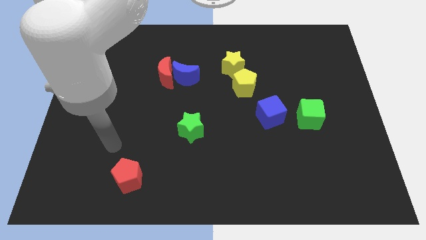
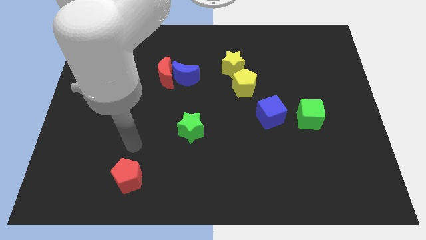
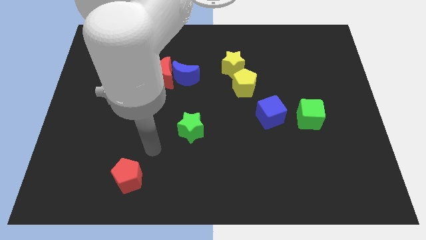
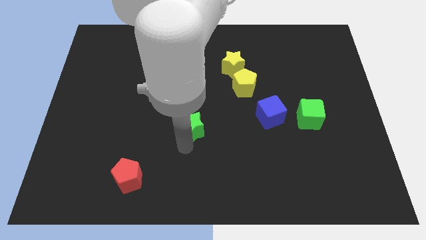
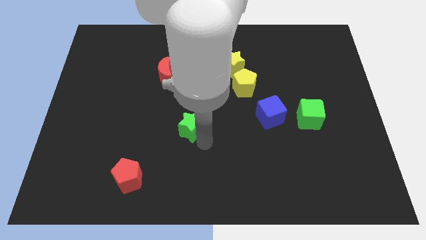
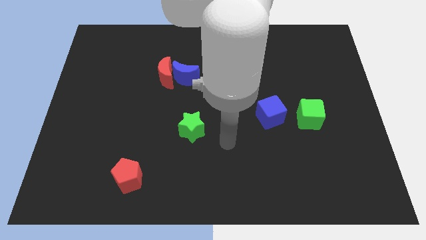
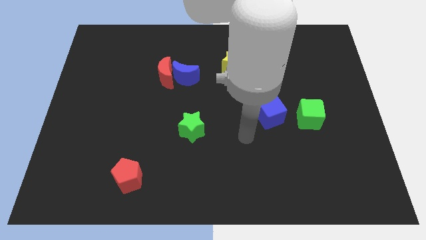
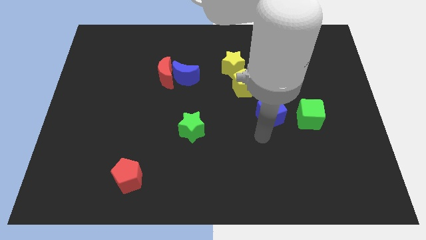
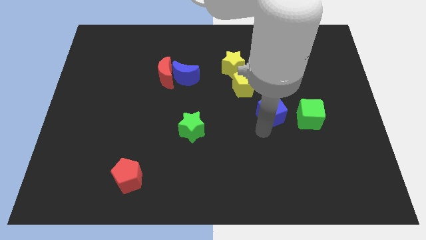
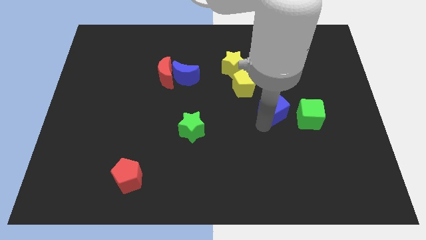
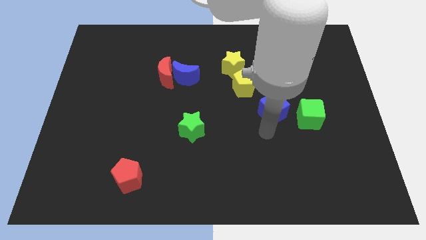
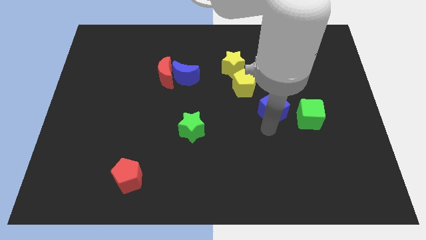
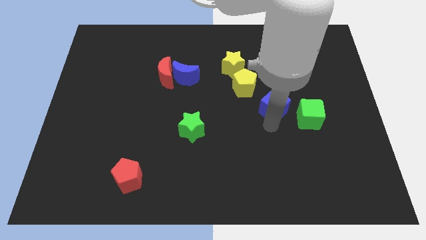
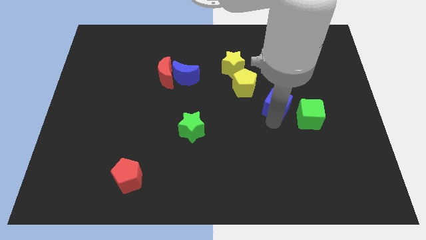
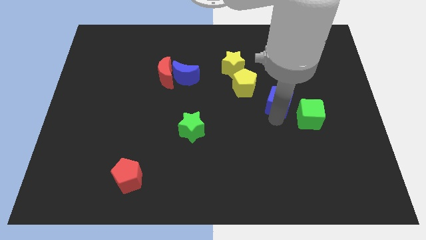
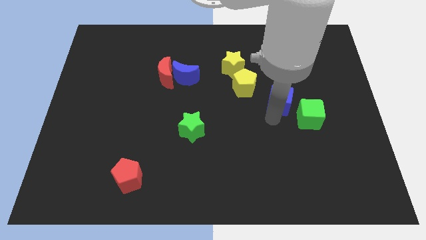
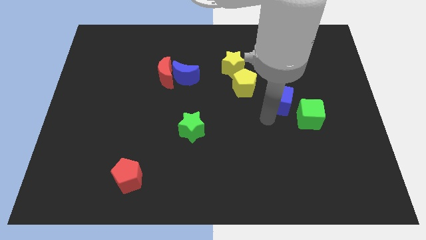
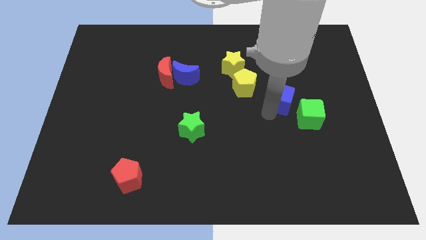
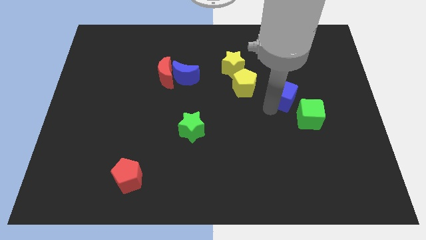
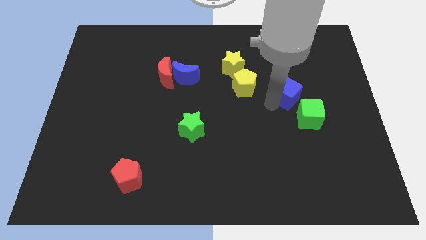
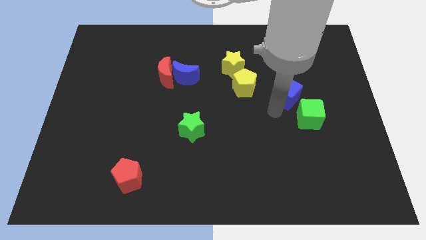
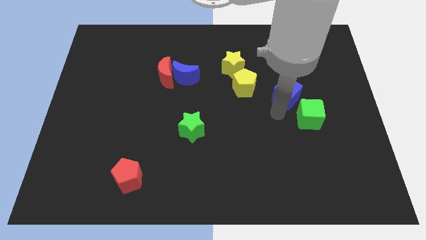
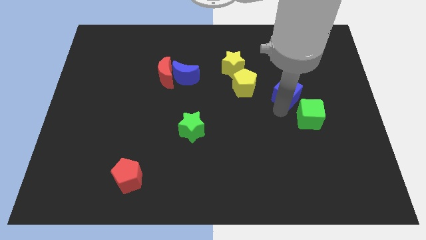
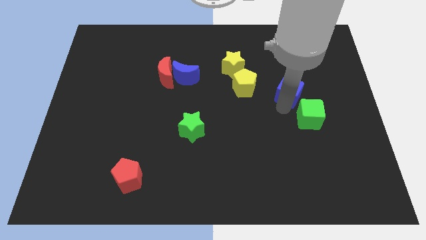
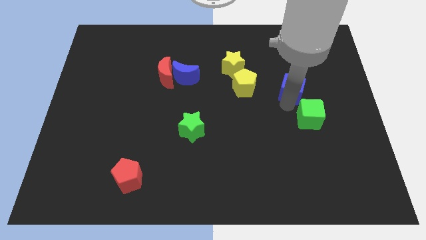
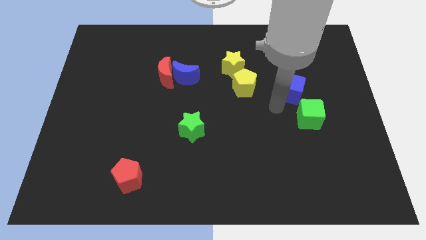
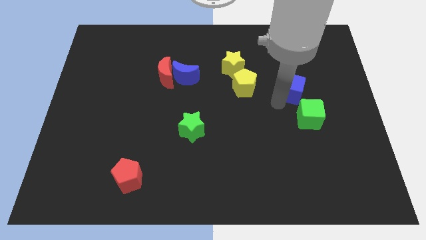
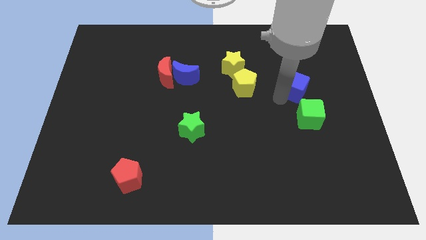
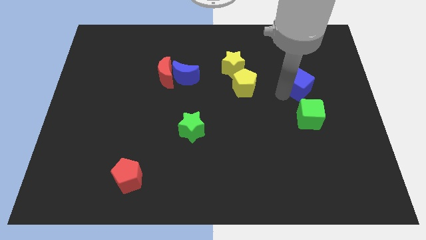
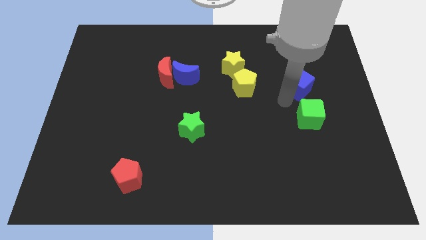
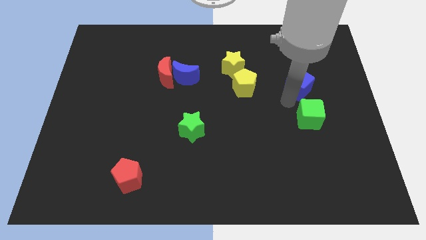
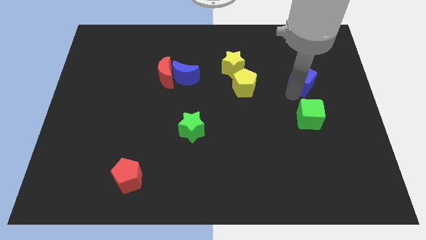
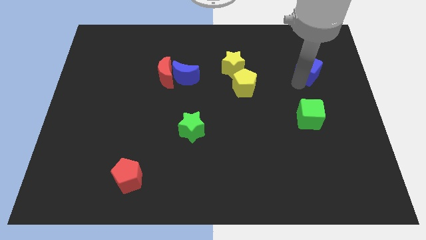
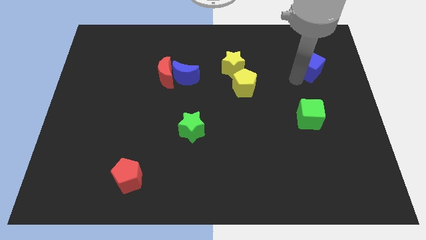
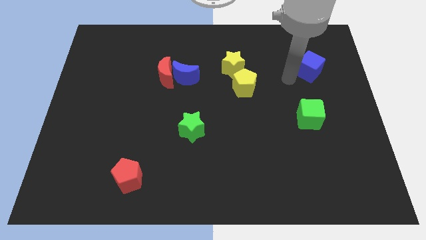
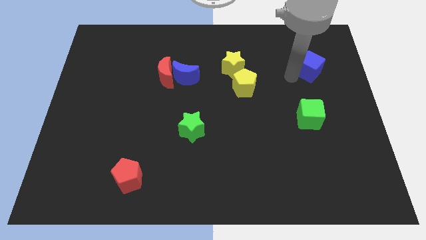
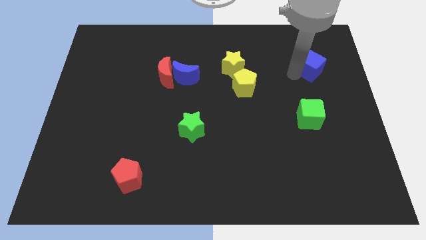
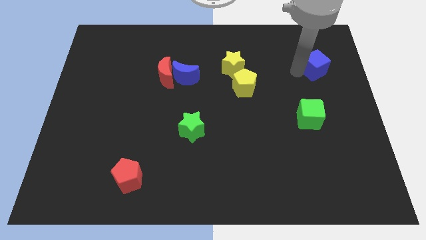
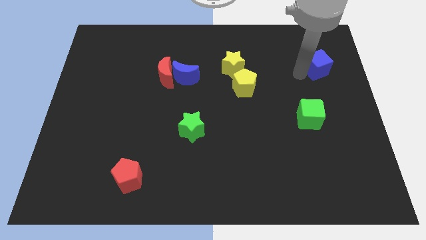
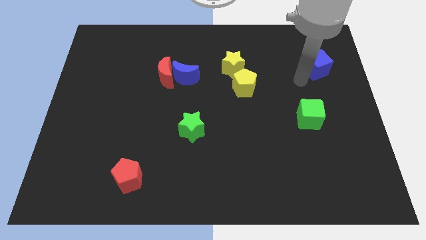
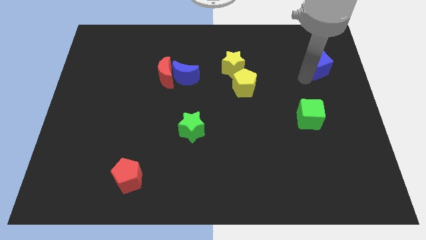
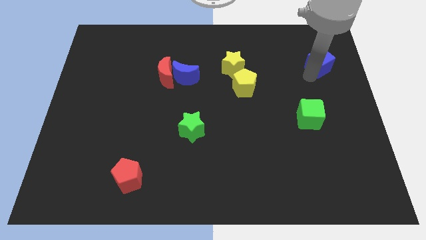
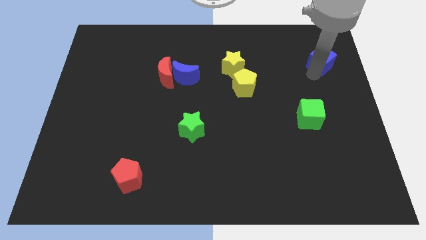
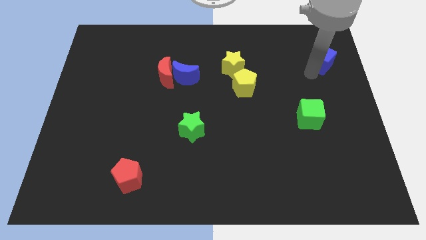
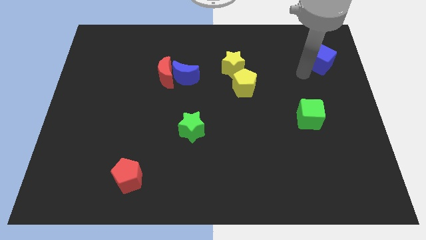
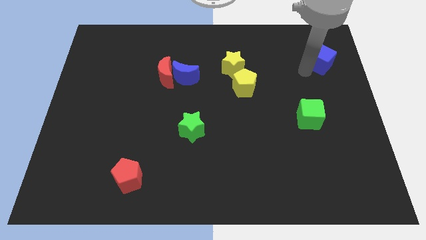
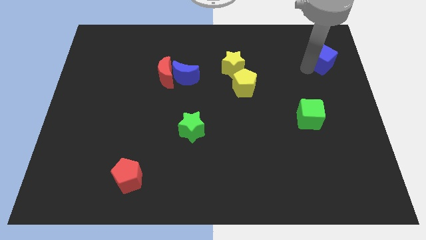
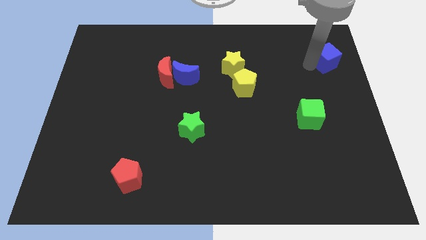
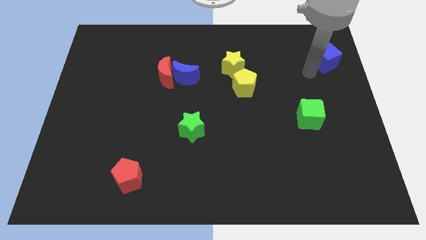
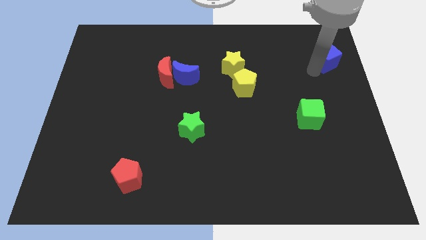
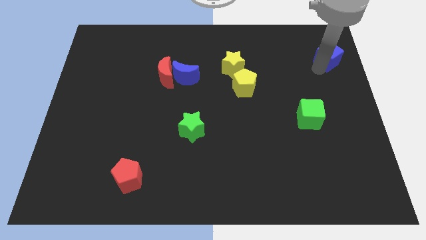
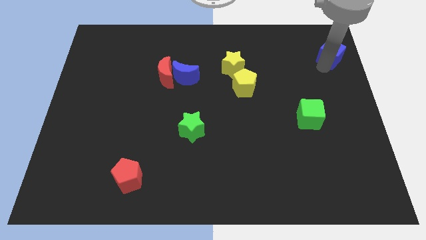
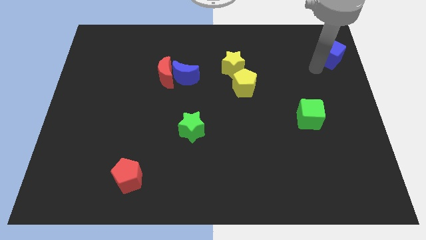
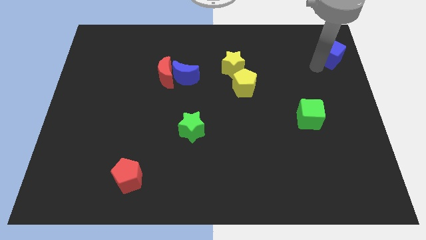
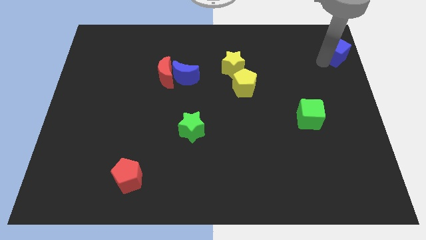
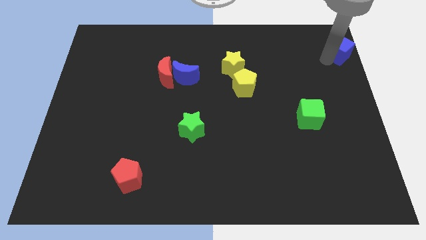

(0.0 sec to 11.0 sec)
push the blue cube to the top right corner
